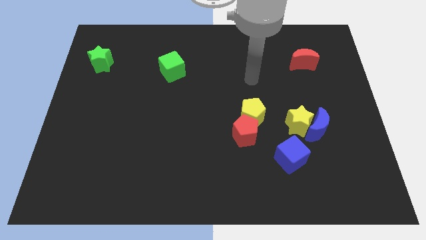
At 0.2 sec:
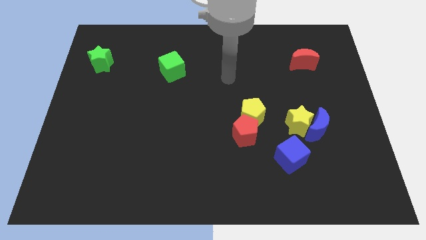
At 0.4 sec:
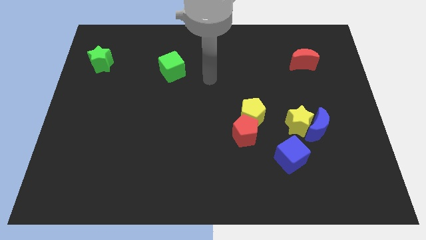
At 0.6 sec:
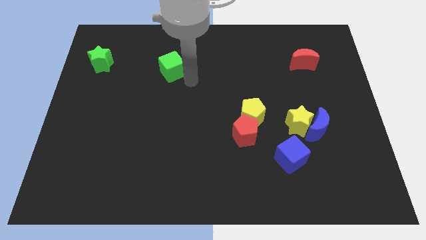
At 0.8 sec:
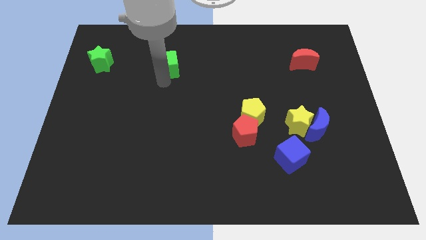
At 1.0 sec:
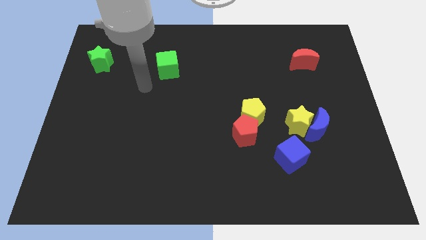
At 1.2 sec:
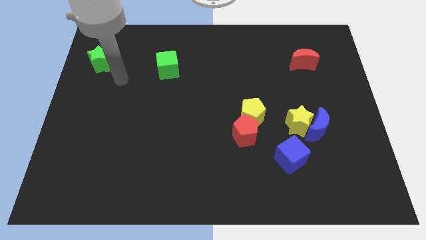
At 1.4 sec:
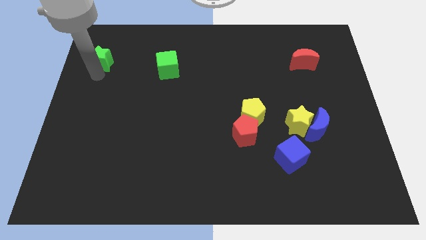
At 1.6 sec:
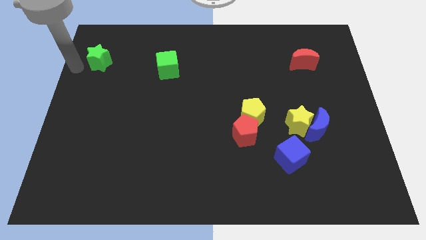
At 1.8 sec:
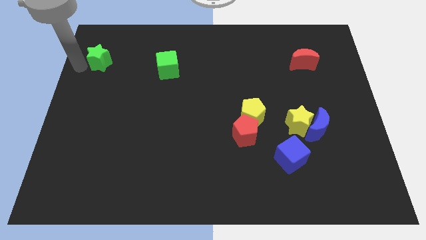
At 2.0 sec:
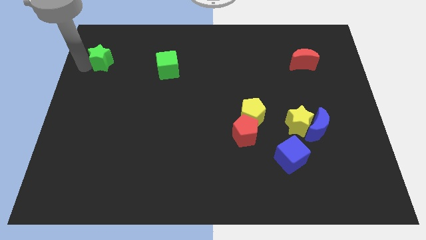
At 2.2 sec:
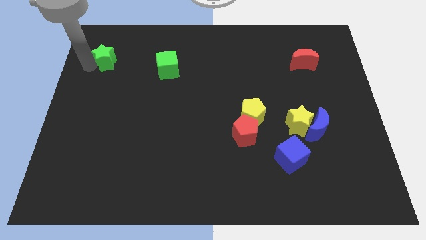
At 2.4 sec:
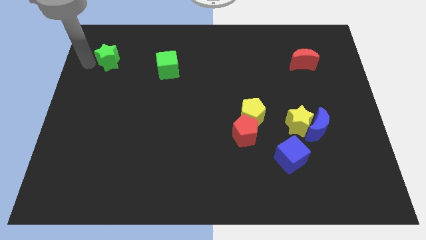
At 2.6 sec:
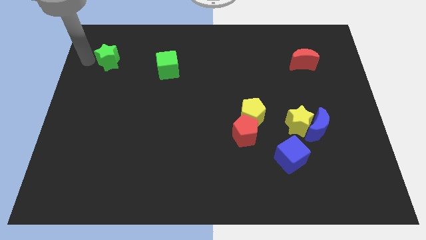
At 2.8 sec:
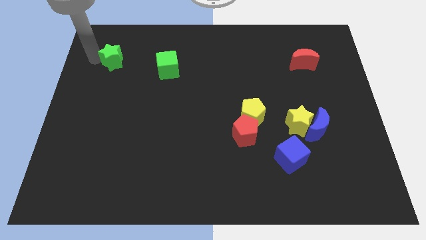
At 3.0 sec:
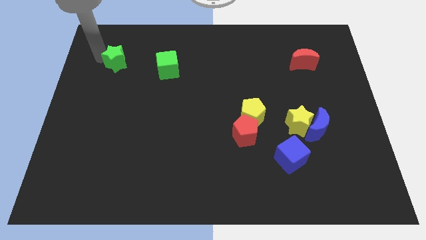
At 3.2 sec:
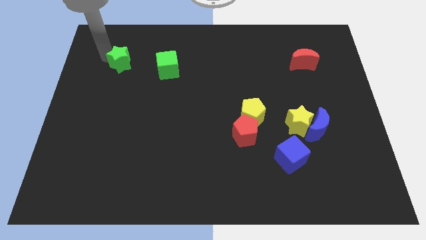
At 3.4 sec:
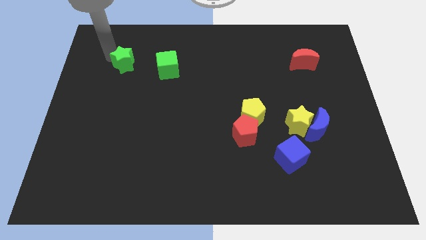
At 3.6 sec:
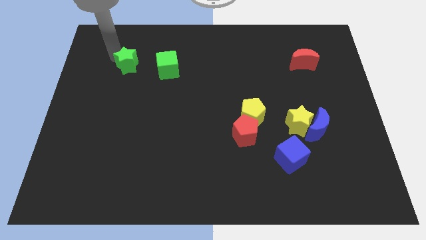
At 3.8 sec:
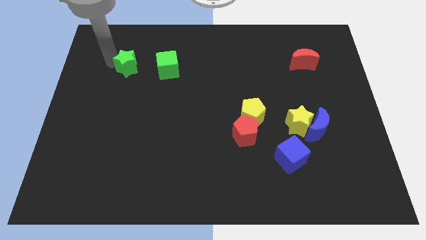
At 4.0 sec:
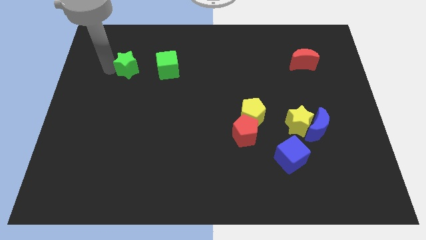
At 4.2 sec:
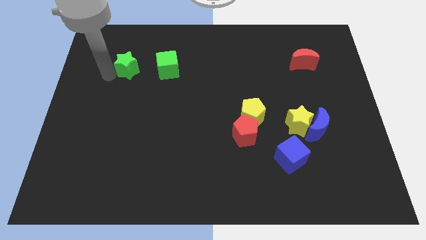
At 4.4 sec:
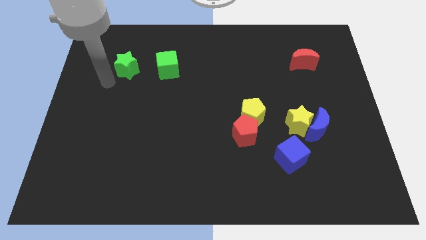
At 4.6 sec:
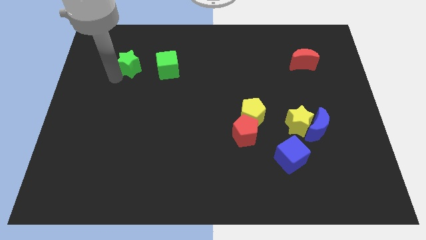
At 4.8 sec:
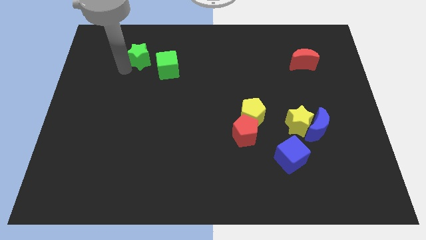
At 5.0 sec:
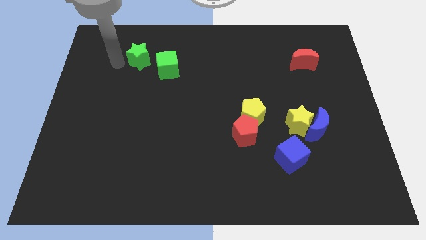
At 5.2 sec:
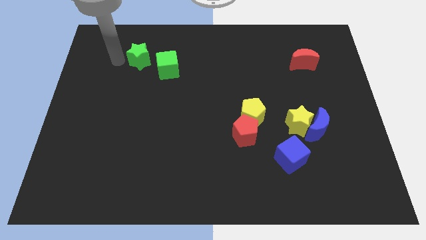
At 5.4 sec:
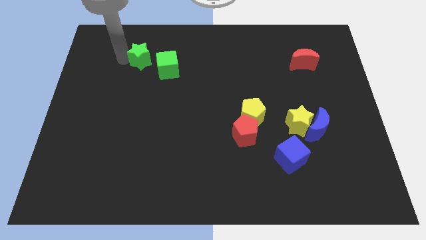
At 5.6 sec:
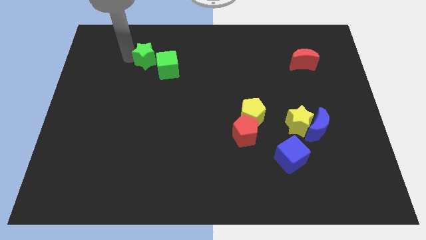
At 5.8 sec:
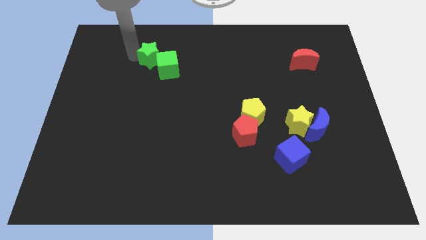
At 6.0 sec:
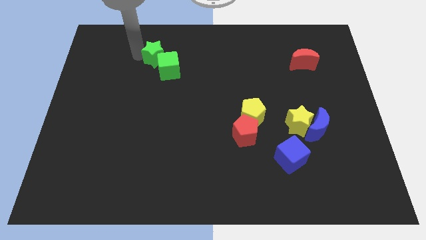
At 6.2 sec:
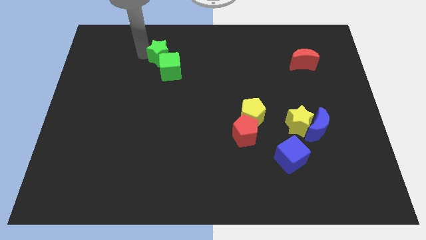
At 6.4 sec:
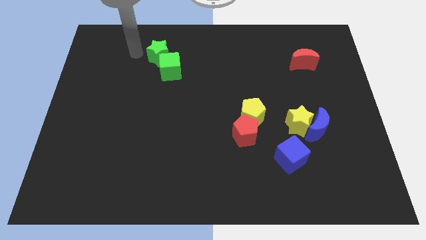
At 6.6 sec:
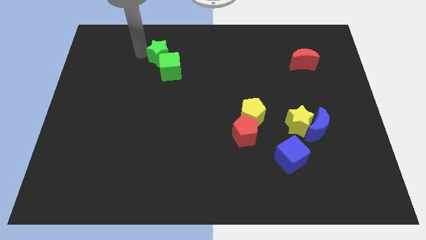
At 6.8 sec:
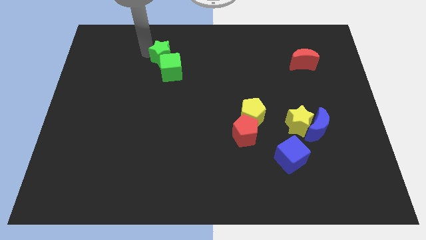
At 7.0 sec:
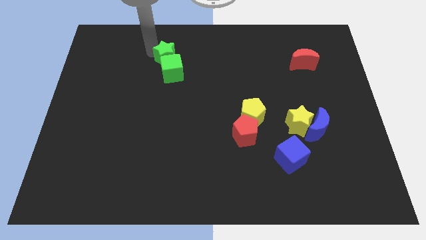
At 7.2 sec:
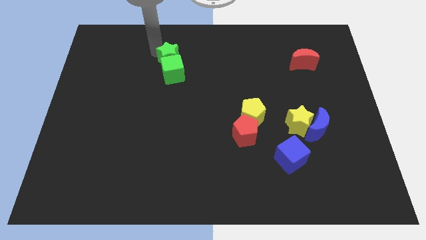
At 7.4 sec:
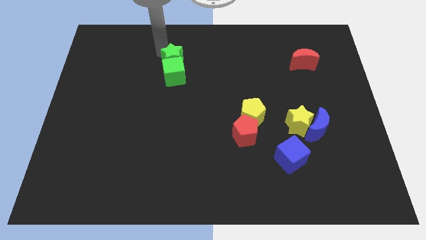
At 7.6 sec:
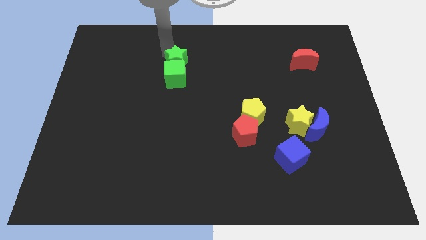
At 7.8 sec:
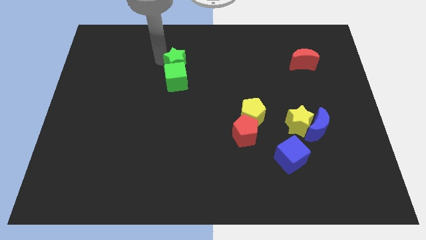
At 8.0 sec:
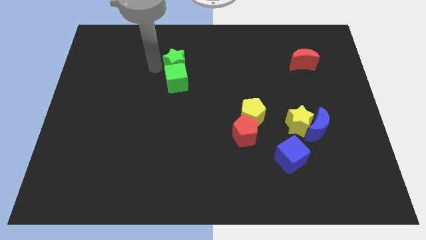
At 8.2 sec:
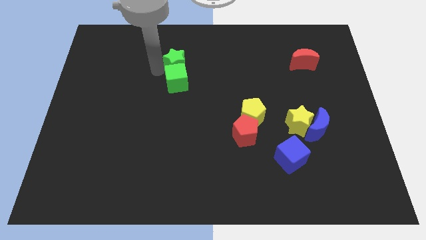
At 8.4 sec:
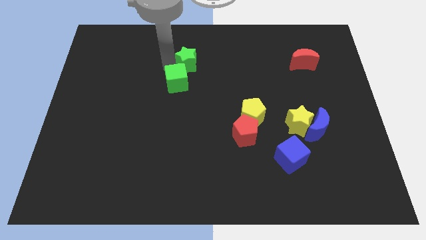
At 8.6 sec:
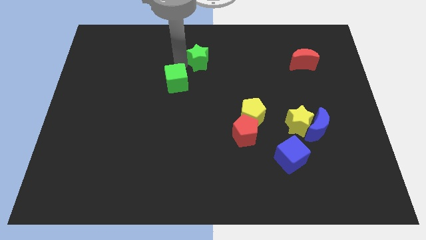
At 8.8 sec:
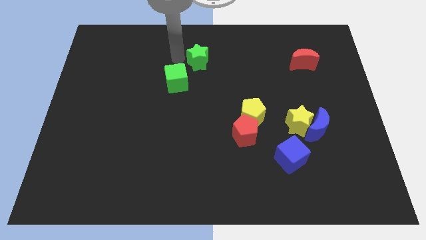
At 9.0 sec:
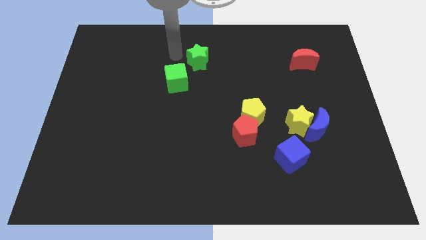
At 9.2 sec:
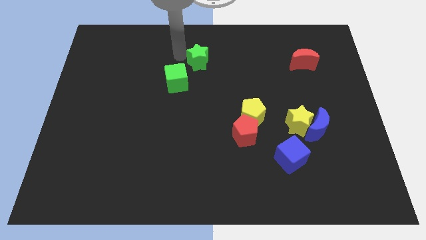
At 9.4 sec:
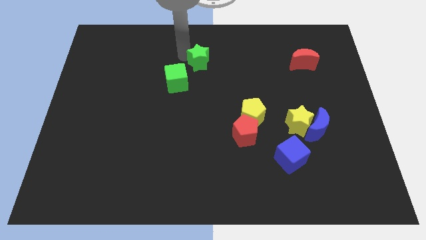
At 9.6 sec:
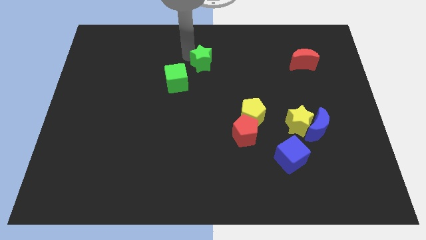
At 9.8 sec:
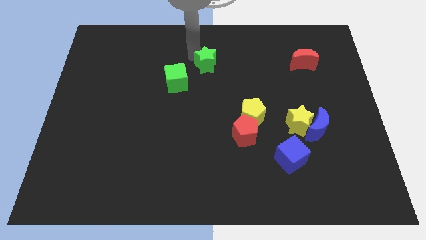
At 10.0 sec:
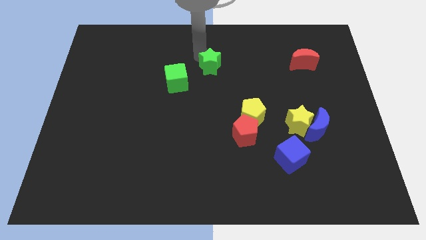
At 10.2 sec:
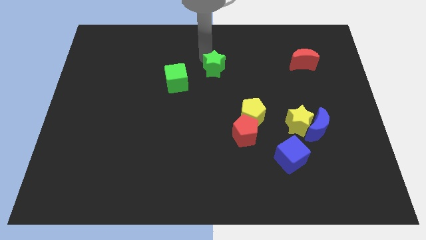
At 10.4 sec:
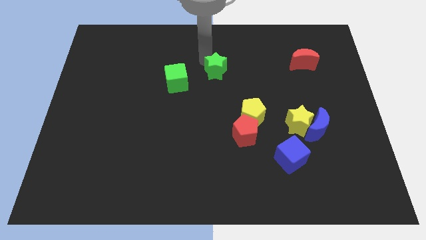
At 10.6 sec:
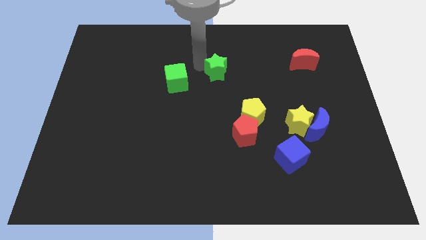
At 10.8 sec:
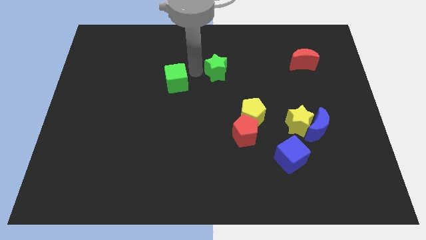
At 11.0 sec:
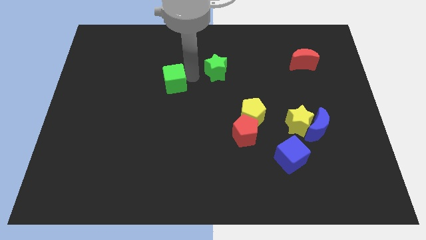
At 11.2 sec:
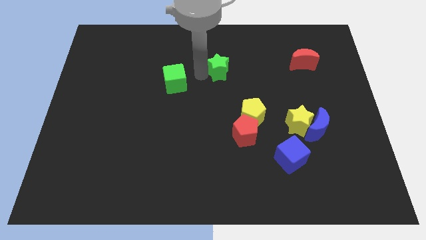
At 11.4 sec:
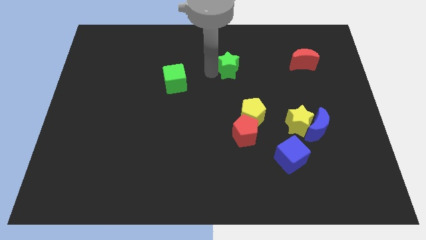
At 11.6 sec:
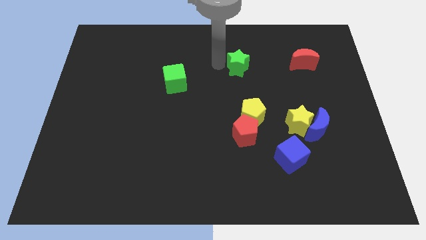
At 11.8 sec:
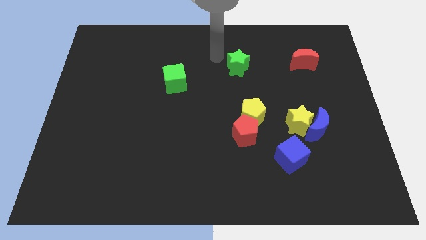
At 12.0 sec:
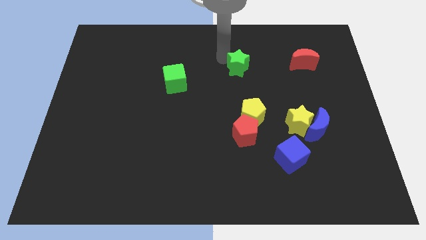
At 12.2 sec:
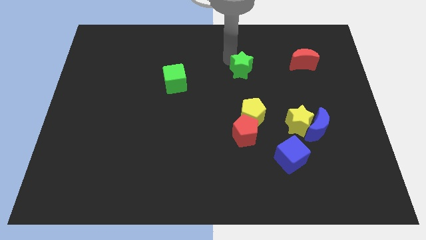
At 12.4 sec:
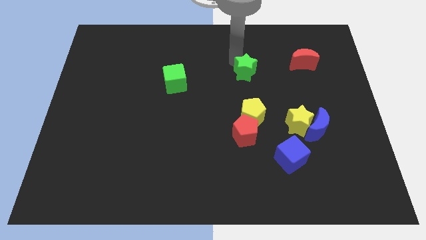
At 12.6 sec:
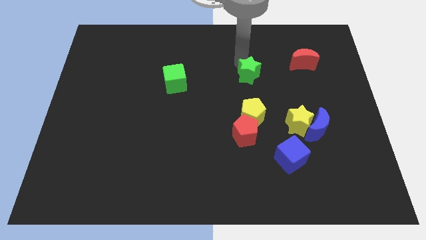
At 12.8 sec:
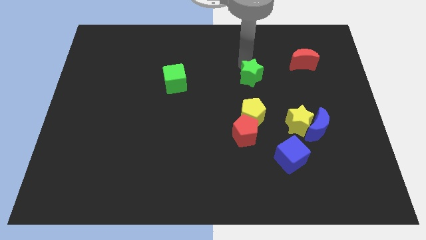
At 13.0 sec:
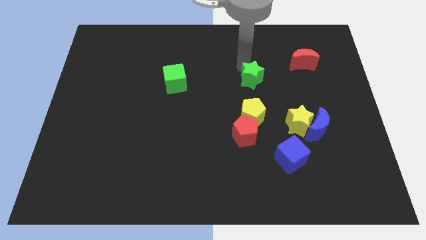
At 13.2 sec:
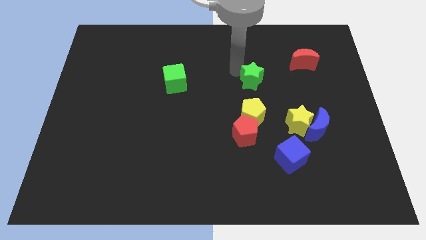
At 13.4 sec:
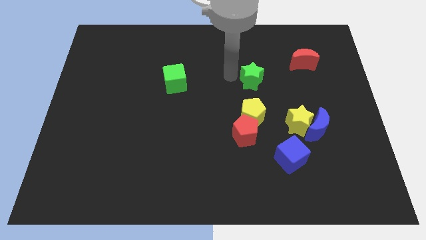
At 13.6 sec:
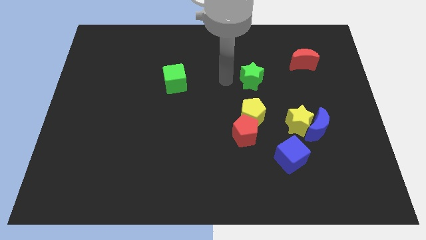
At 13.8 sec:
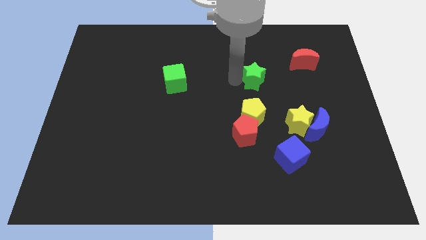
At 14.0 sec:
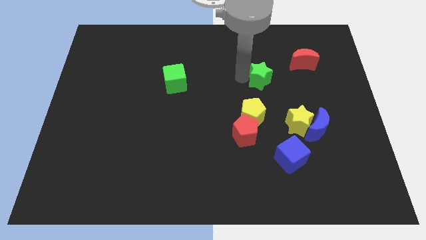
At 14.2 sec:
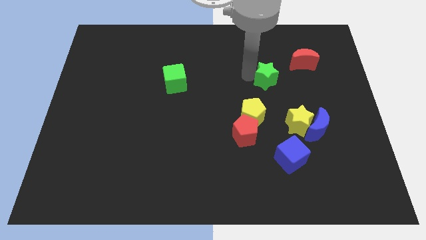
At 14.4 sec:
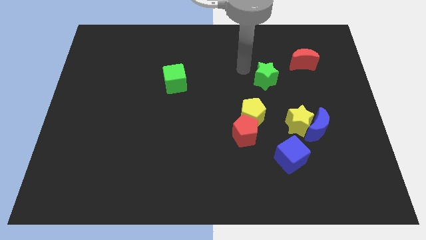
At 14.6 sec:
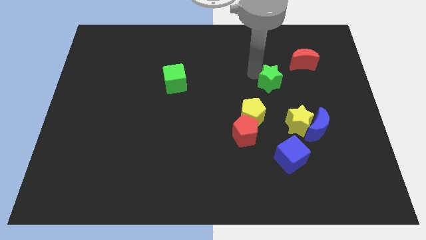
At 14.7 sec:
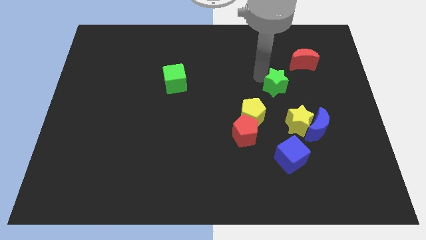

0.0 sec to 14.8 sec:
push the green star to the top of the yellow star
